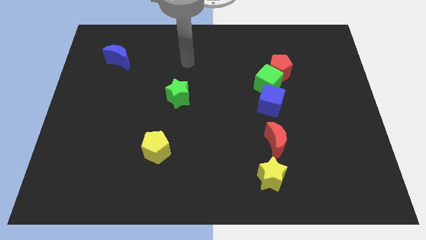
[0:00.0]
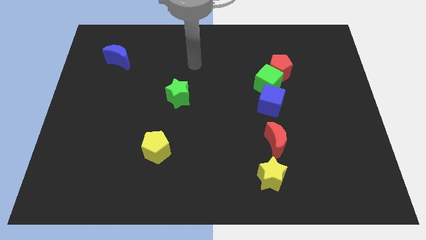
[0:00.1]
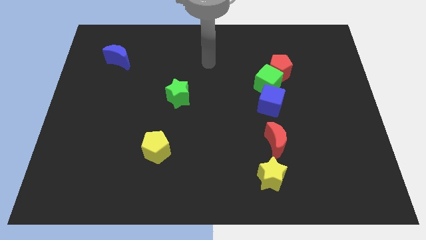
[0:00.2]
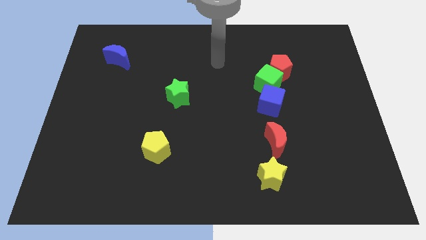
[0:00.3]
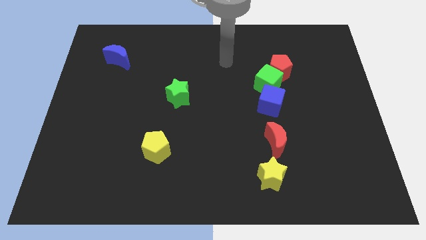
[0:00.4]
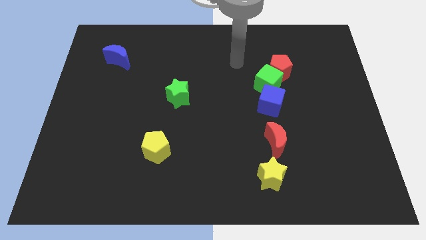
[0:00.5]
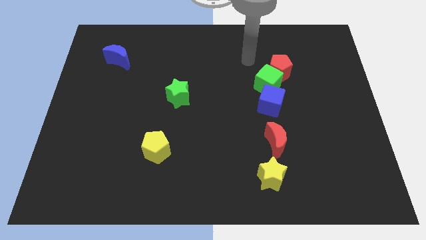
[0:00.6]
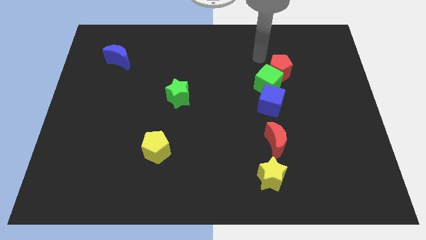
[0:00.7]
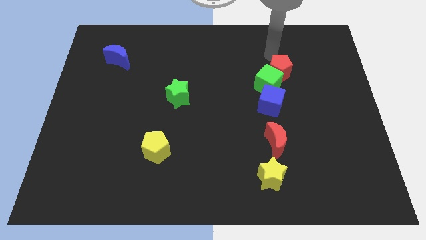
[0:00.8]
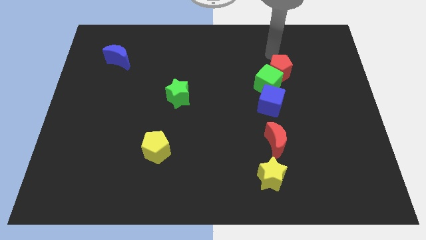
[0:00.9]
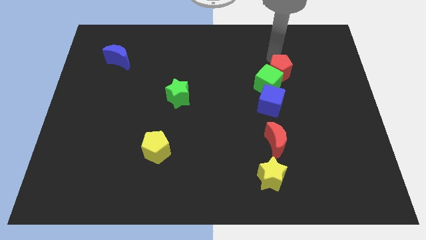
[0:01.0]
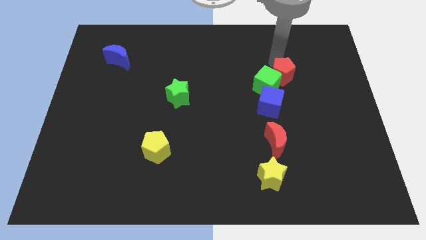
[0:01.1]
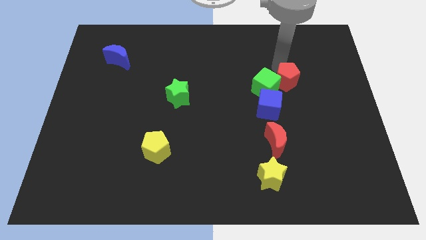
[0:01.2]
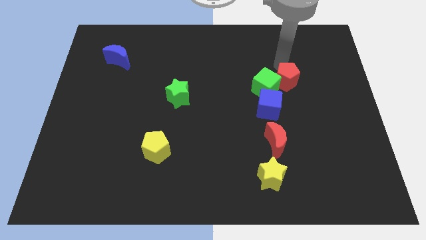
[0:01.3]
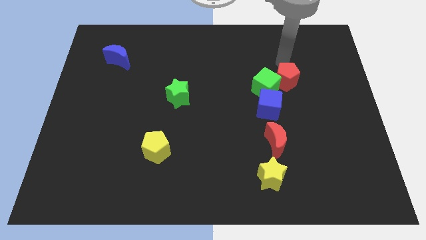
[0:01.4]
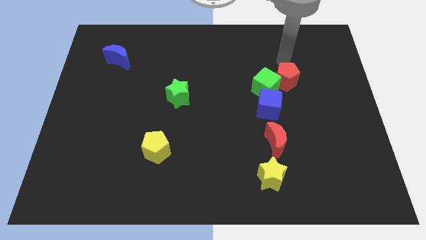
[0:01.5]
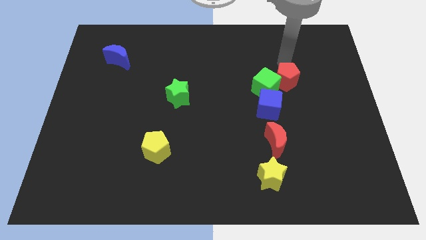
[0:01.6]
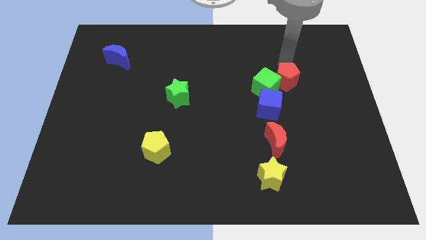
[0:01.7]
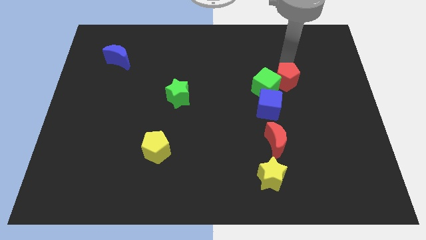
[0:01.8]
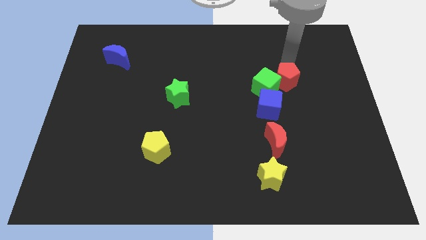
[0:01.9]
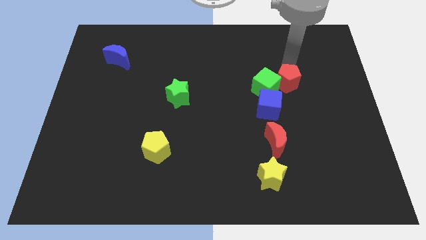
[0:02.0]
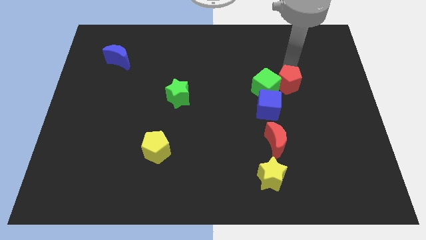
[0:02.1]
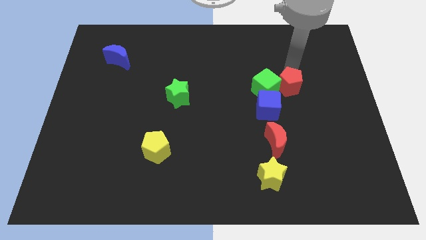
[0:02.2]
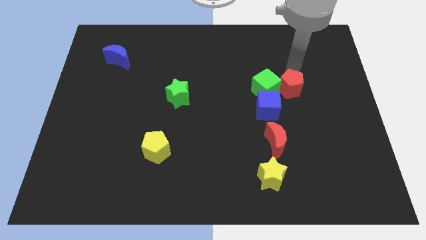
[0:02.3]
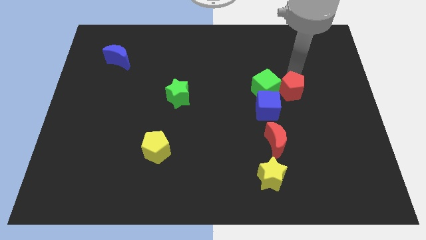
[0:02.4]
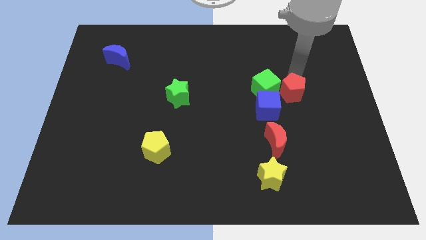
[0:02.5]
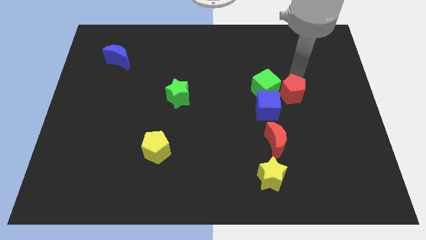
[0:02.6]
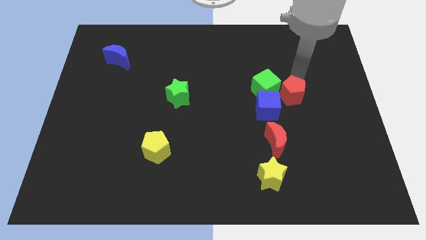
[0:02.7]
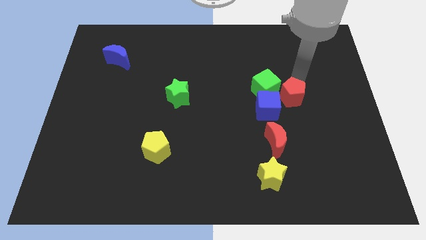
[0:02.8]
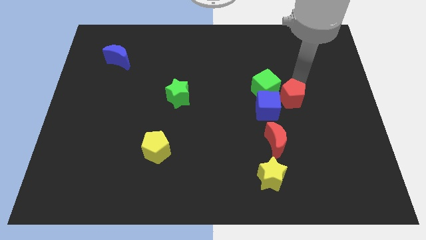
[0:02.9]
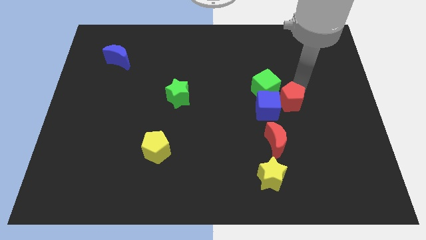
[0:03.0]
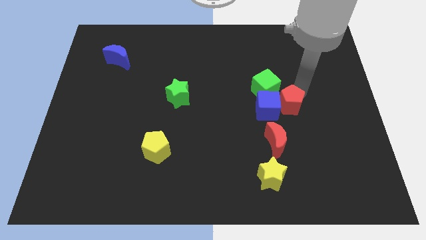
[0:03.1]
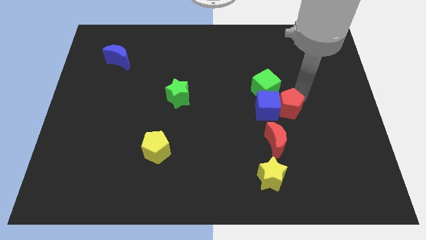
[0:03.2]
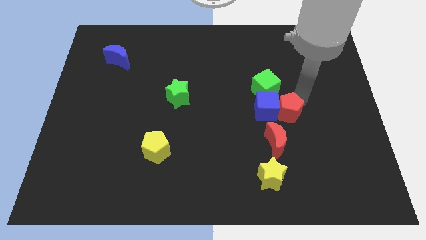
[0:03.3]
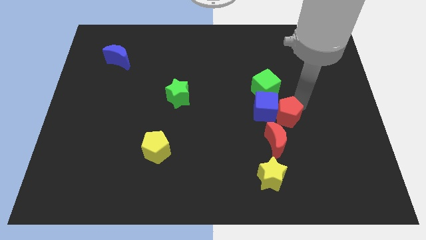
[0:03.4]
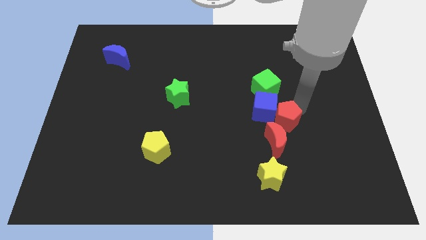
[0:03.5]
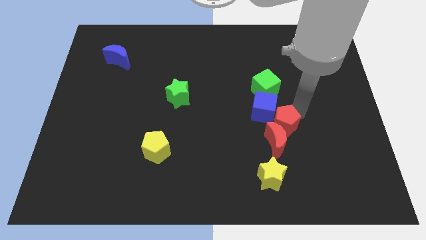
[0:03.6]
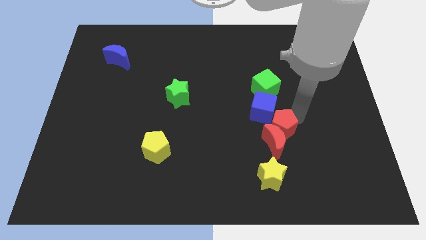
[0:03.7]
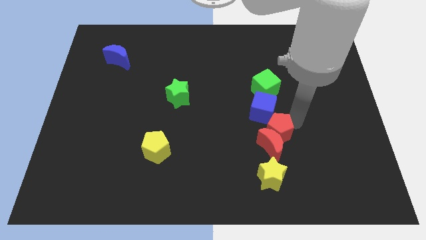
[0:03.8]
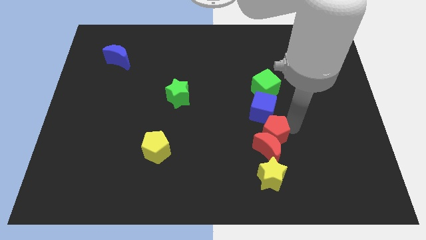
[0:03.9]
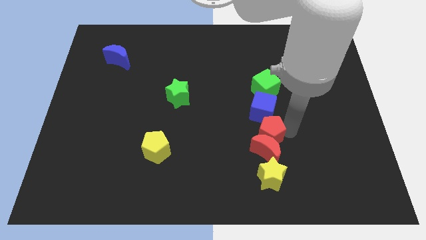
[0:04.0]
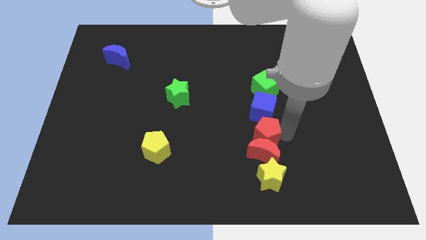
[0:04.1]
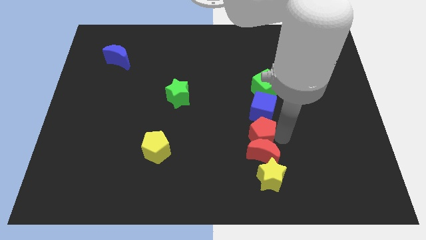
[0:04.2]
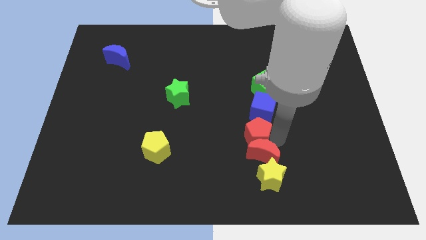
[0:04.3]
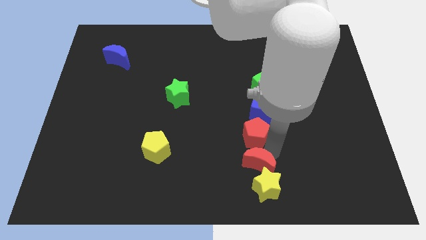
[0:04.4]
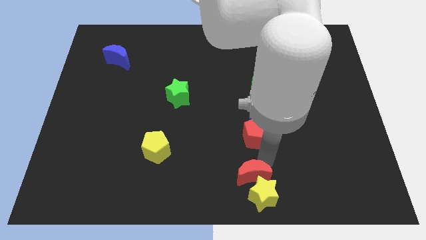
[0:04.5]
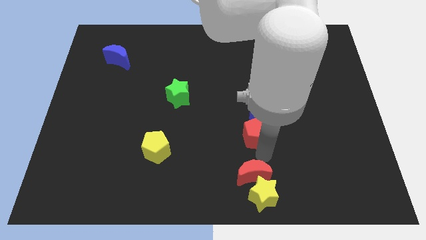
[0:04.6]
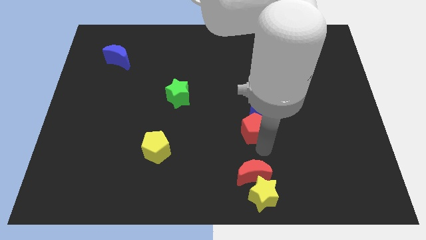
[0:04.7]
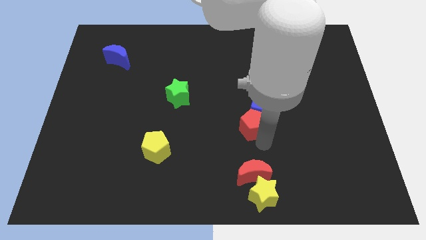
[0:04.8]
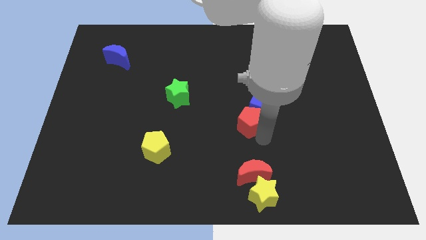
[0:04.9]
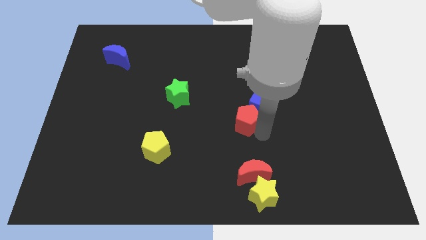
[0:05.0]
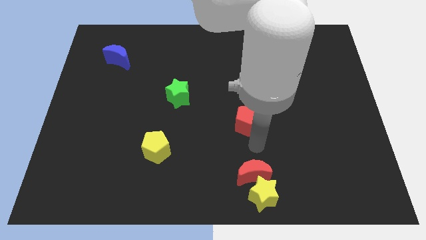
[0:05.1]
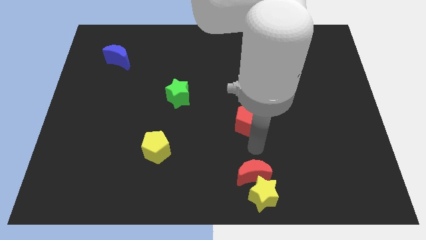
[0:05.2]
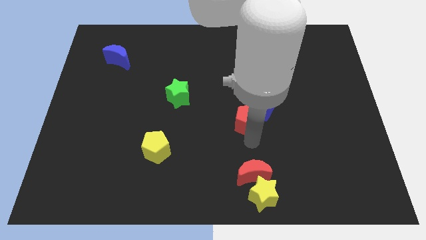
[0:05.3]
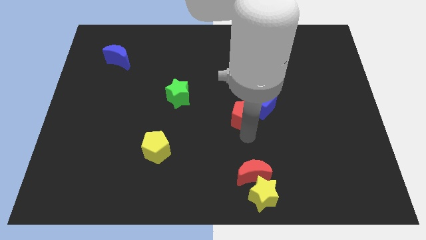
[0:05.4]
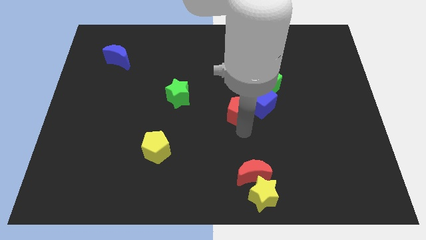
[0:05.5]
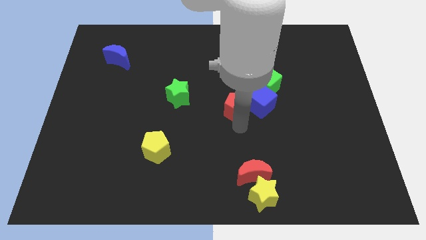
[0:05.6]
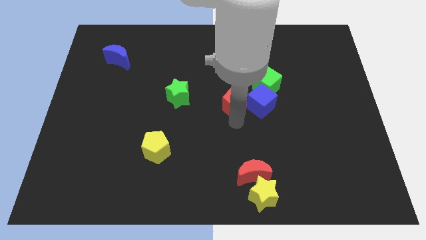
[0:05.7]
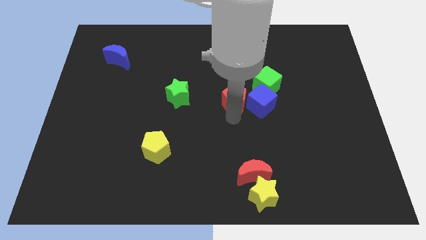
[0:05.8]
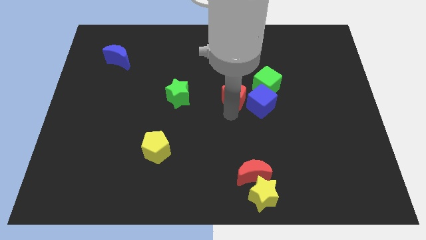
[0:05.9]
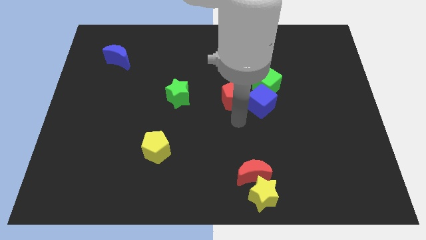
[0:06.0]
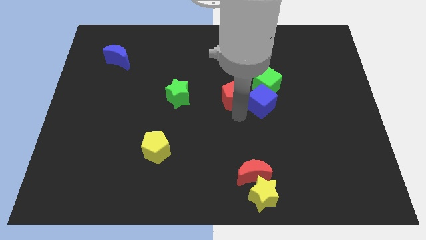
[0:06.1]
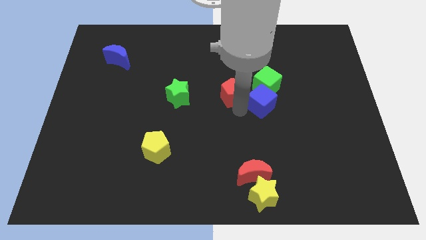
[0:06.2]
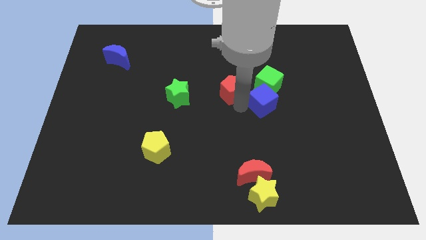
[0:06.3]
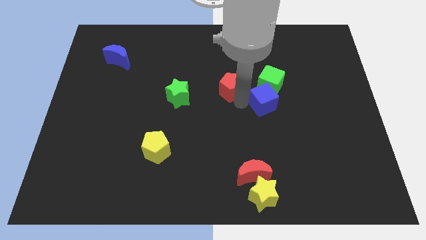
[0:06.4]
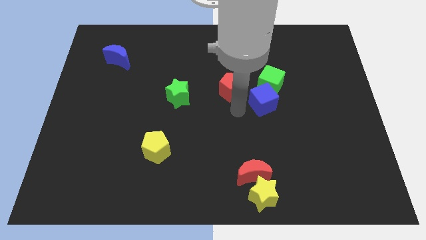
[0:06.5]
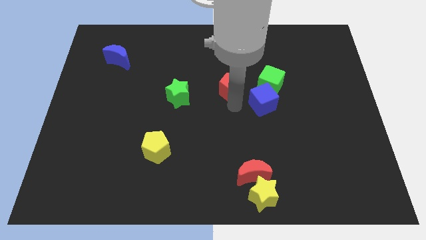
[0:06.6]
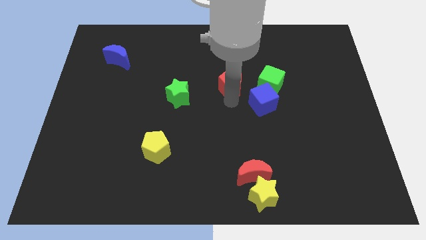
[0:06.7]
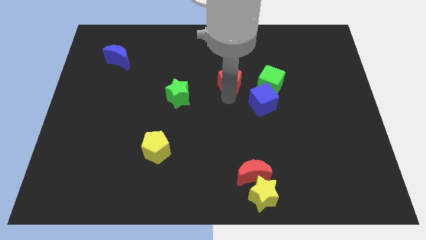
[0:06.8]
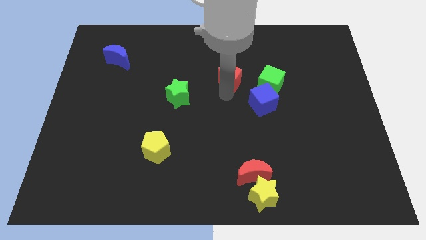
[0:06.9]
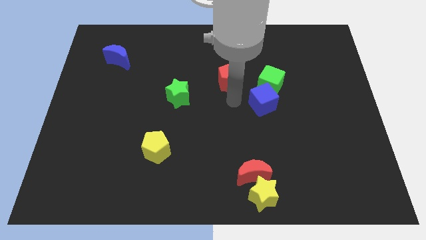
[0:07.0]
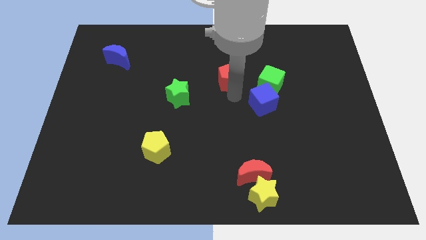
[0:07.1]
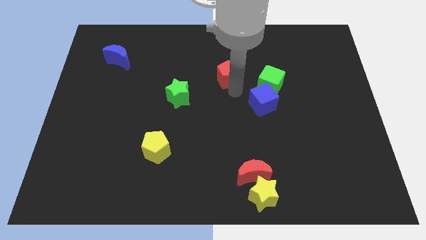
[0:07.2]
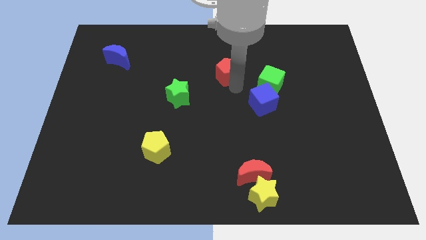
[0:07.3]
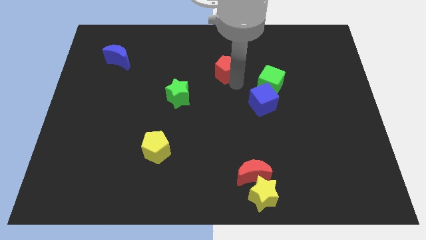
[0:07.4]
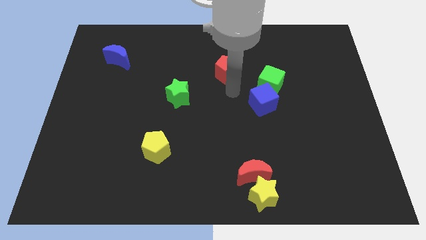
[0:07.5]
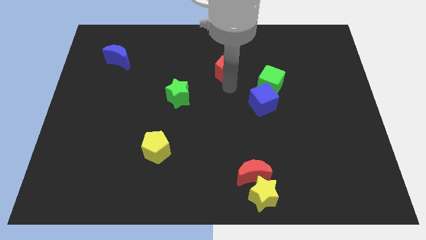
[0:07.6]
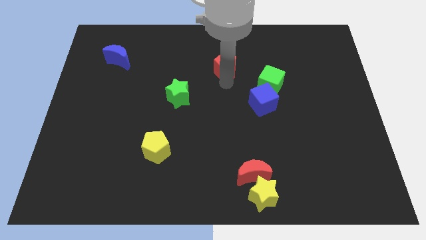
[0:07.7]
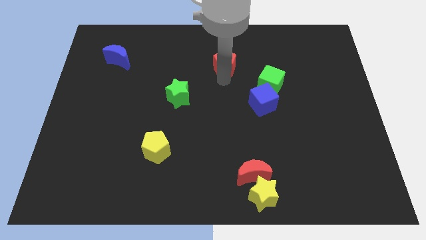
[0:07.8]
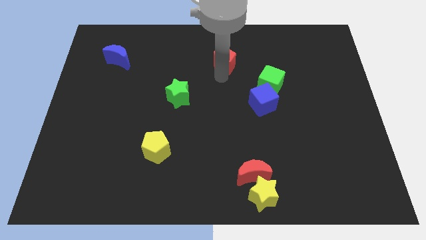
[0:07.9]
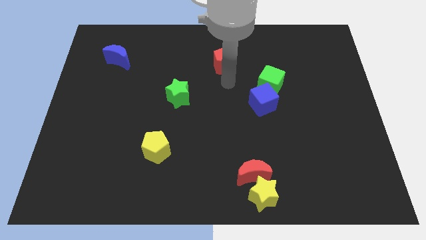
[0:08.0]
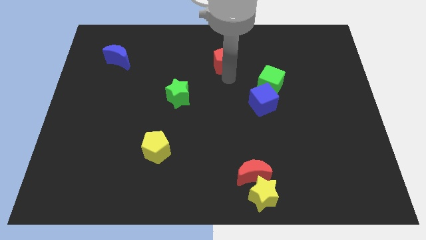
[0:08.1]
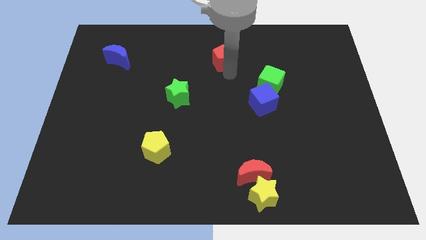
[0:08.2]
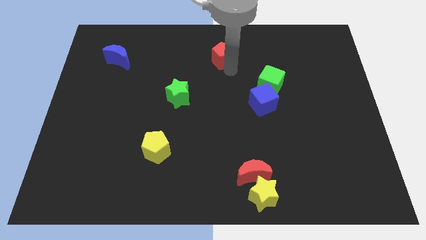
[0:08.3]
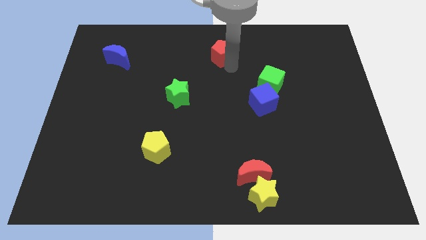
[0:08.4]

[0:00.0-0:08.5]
push the red pentagon to the towards your base
